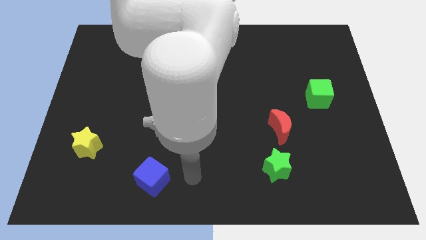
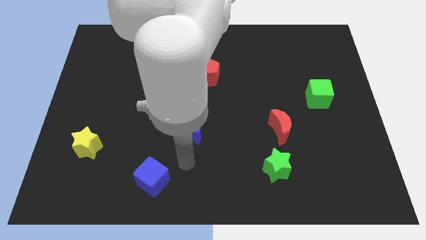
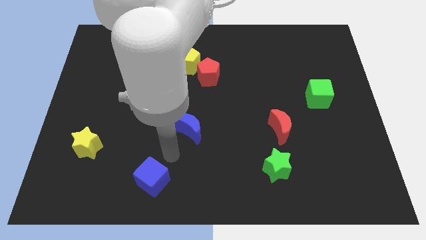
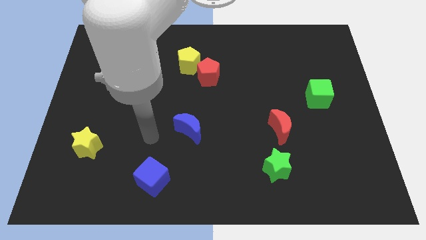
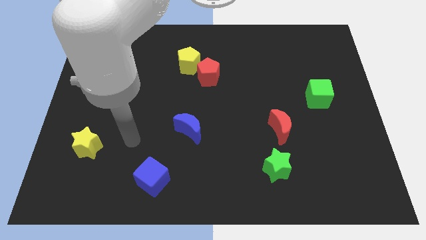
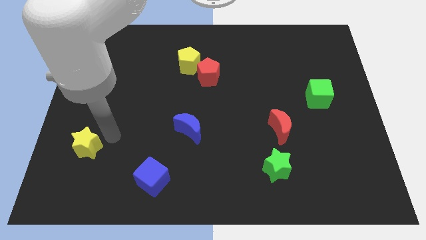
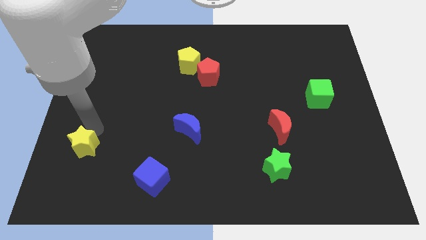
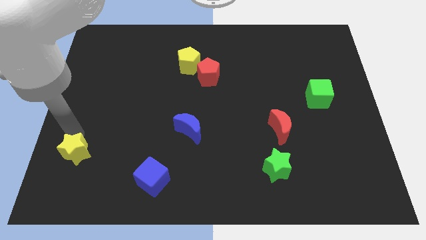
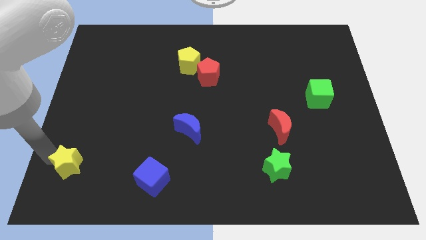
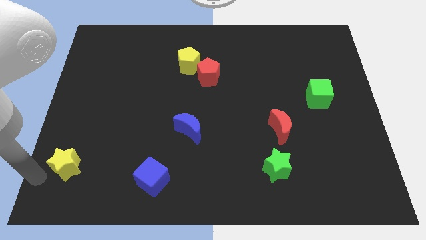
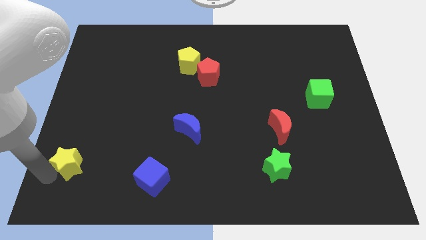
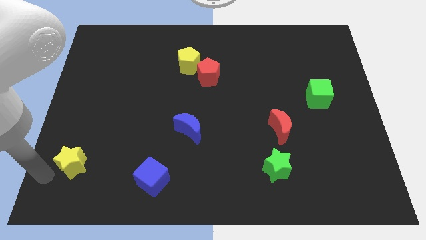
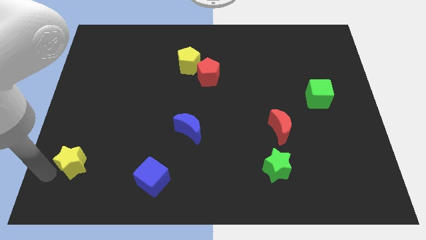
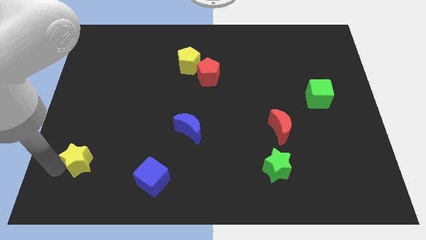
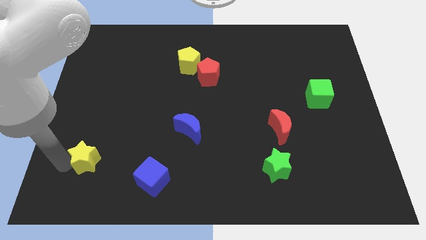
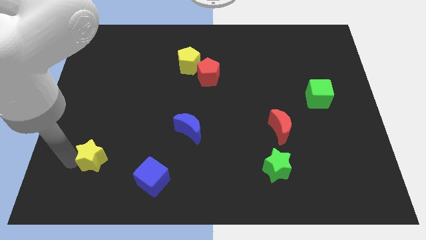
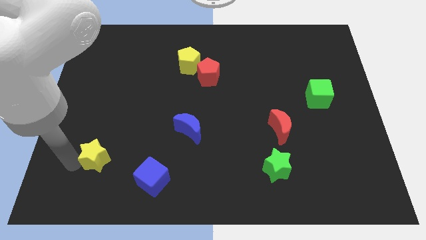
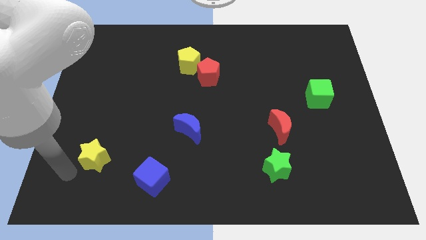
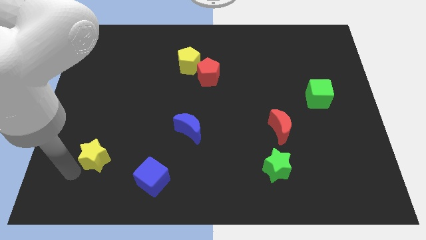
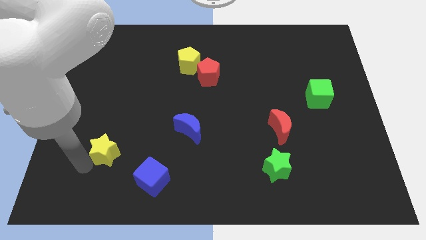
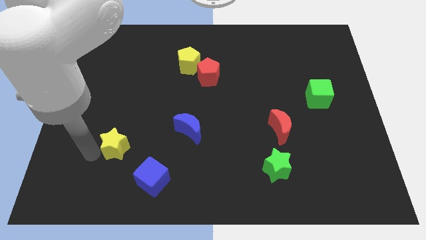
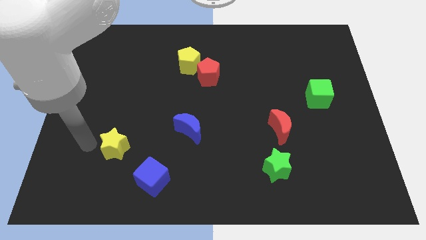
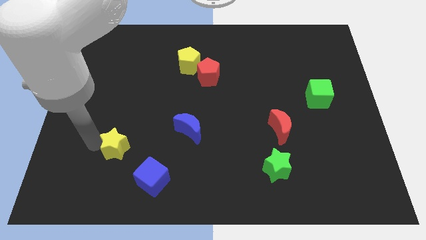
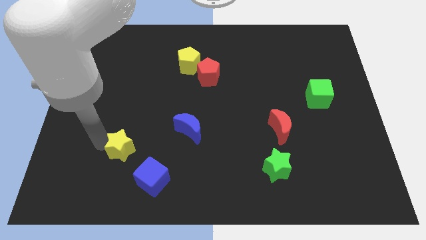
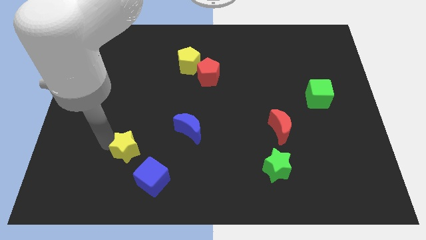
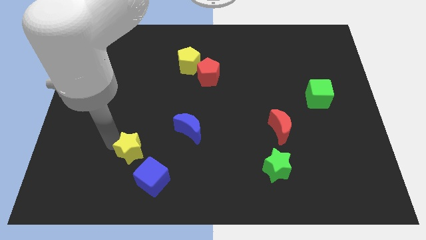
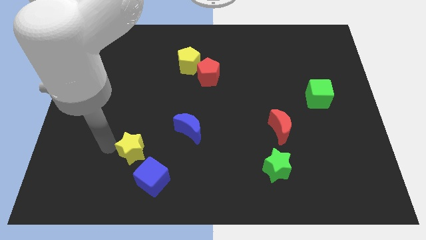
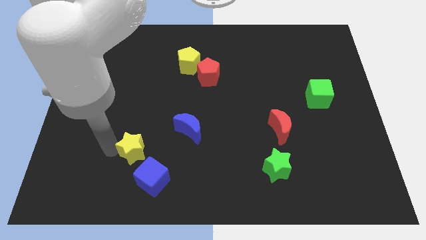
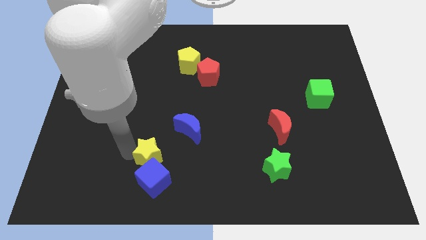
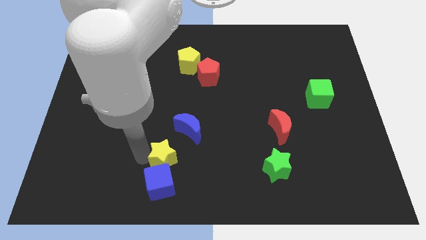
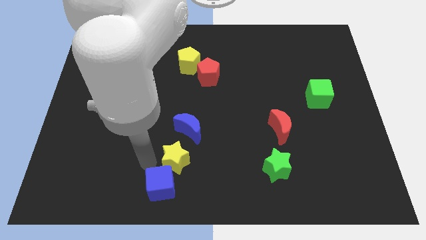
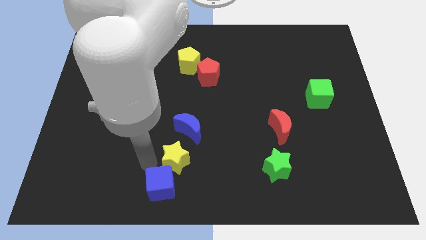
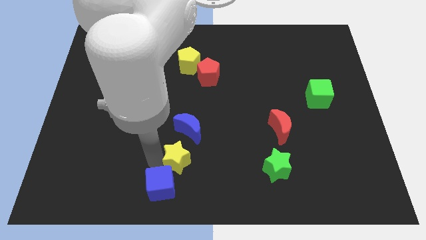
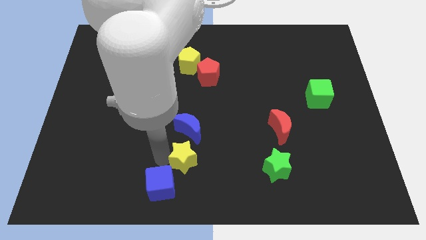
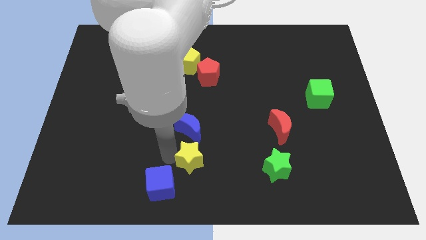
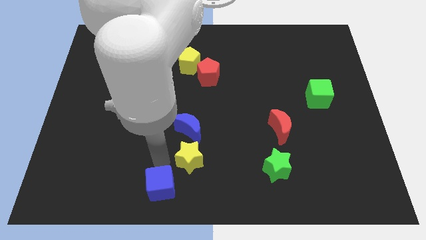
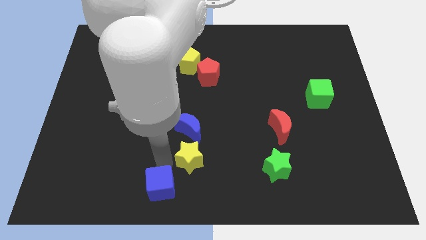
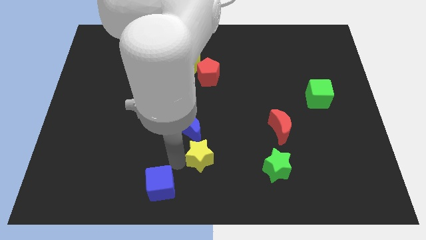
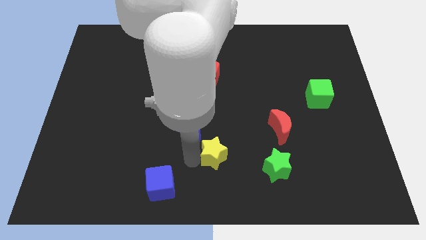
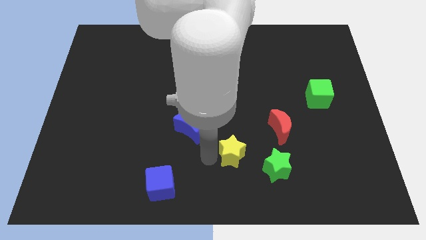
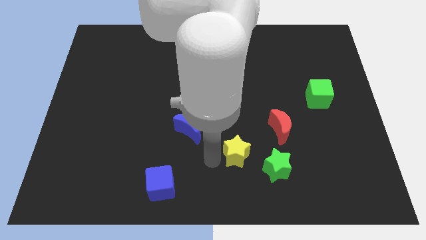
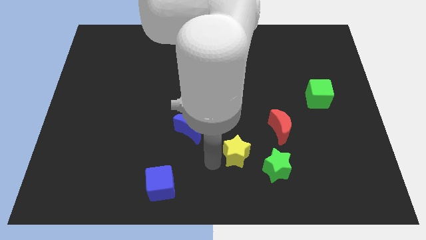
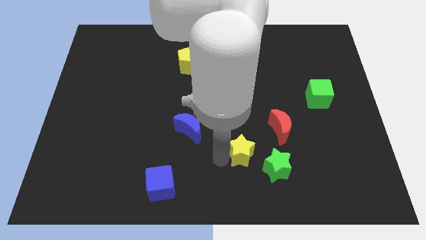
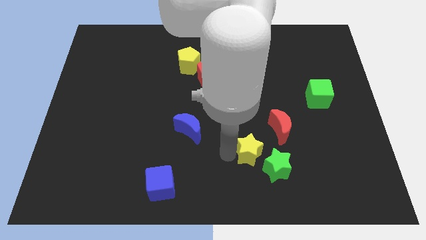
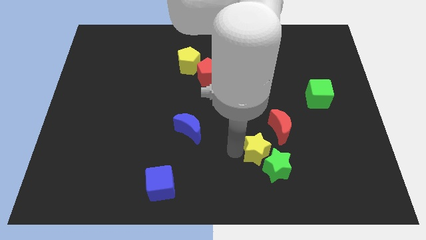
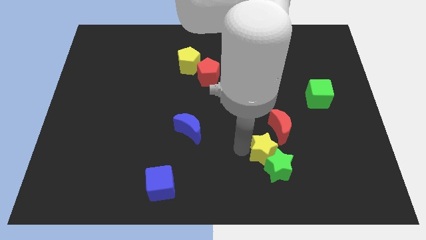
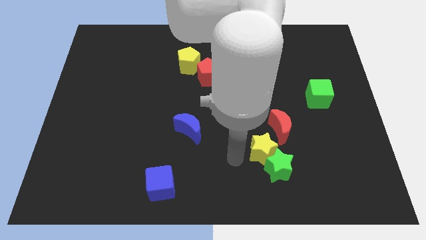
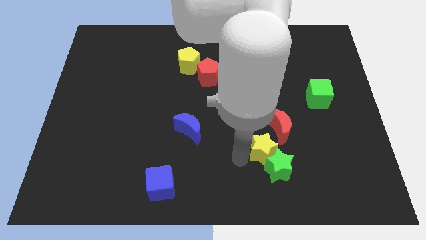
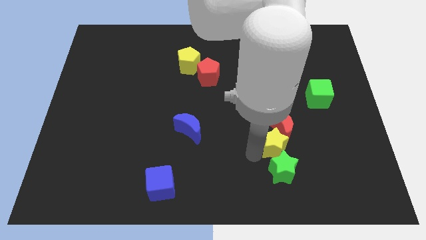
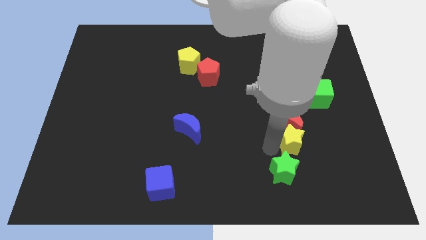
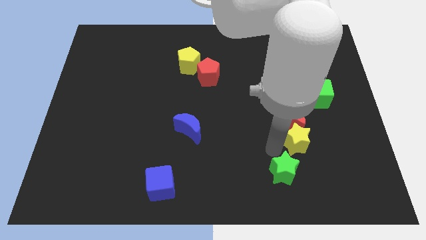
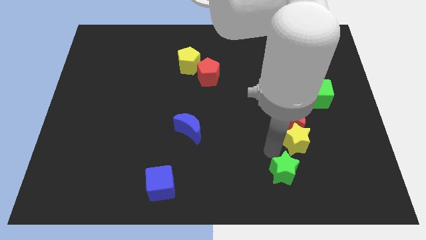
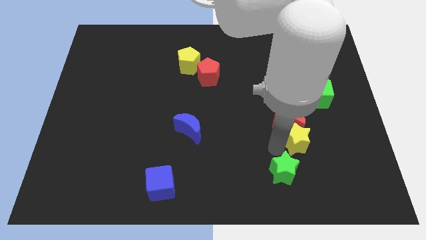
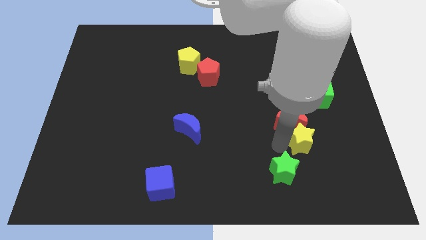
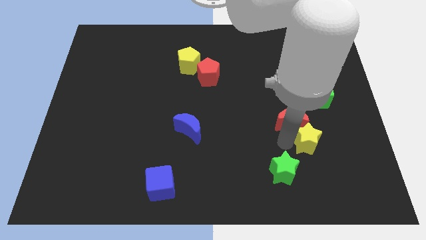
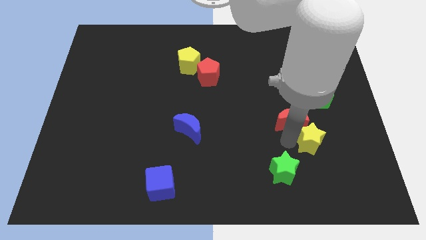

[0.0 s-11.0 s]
put the yellow star below the green cube

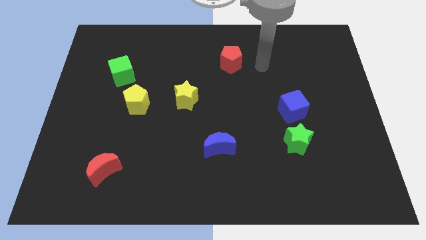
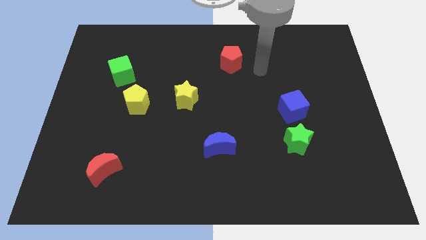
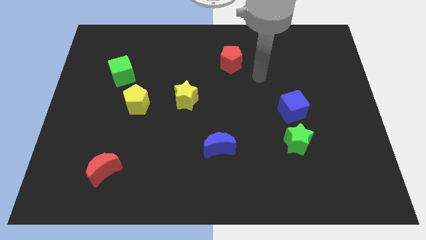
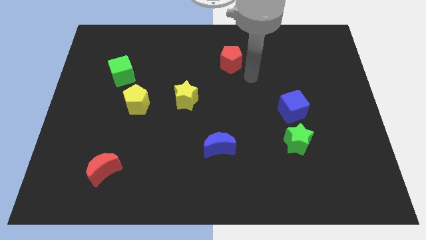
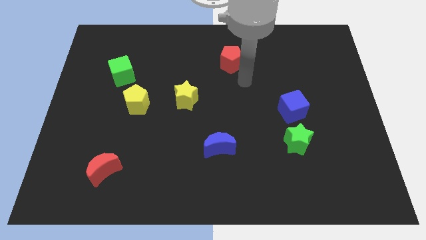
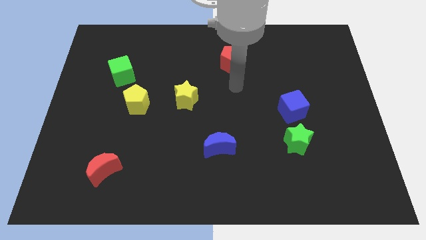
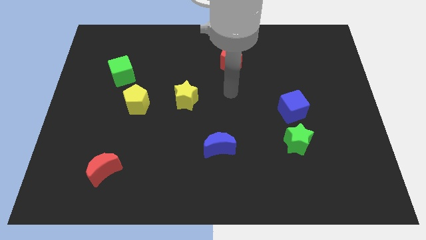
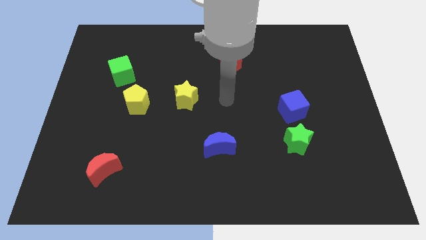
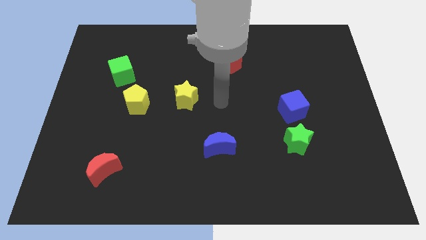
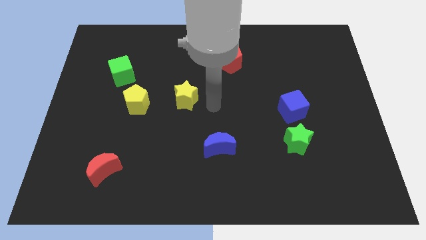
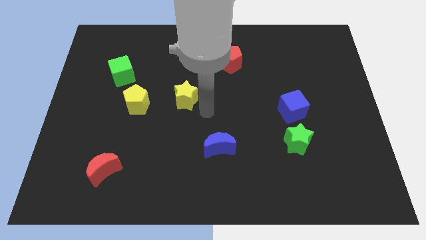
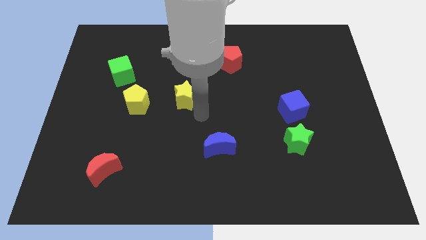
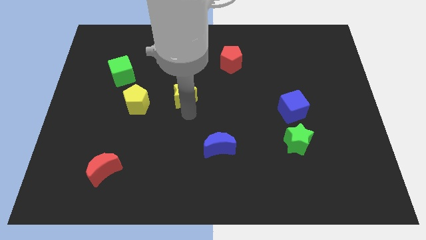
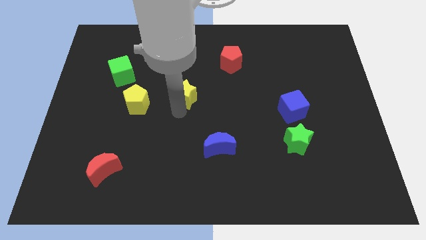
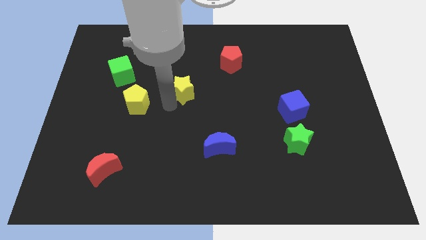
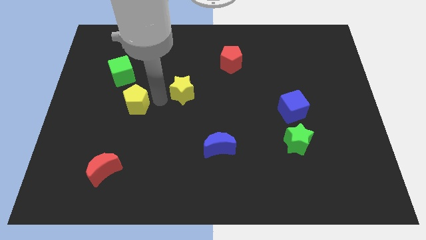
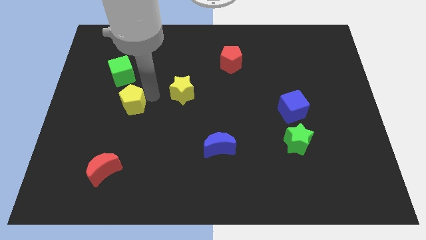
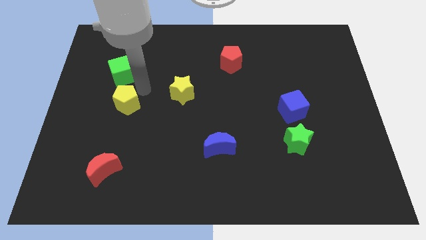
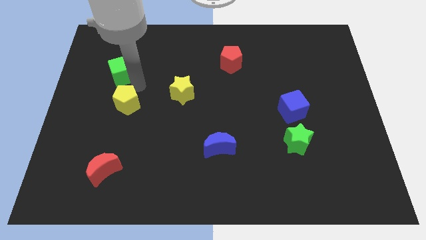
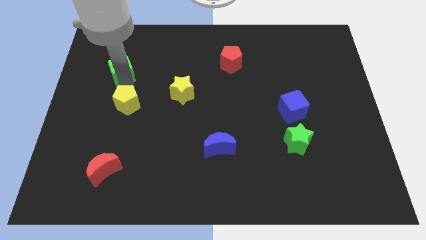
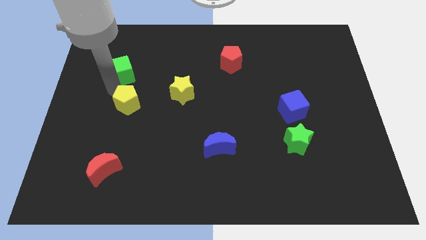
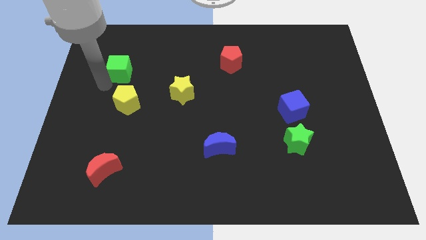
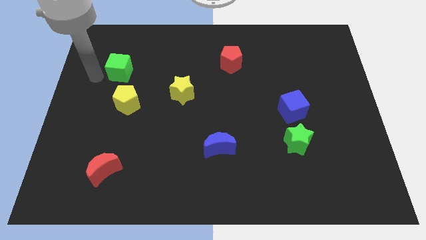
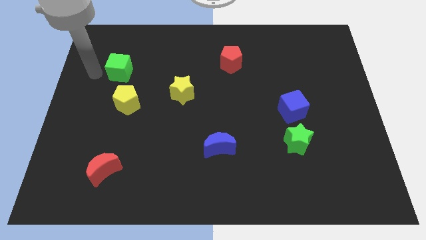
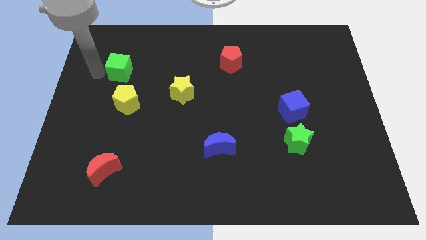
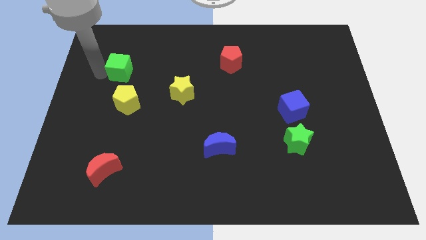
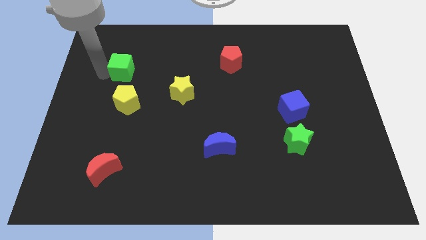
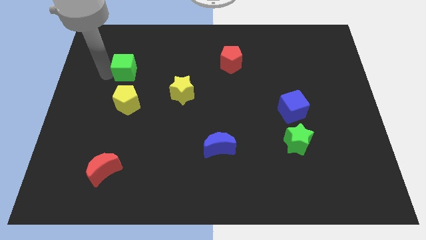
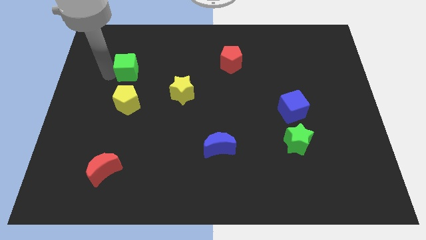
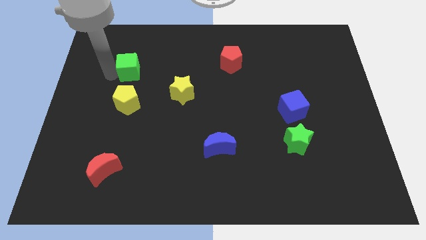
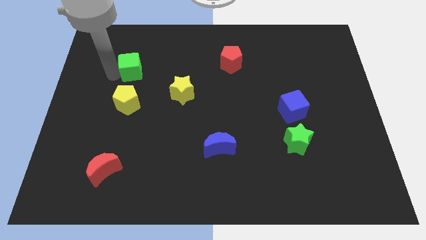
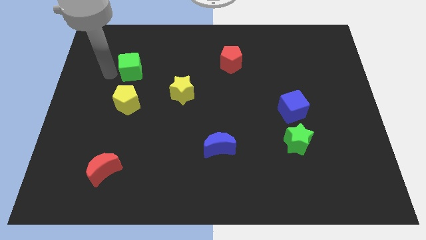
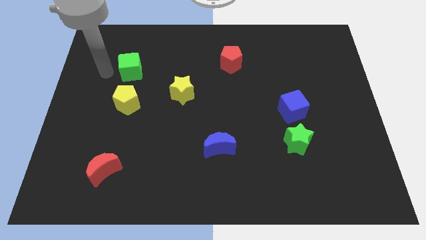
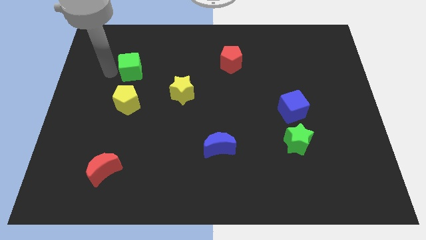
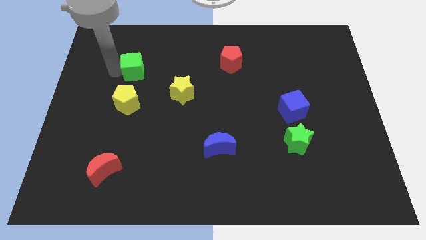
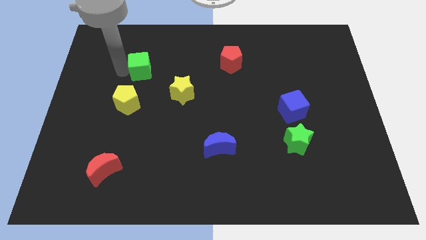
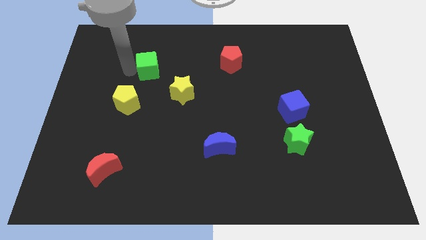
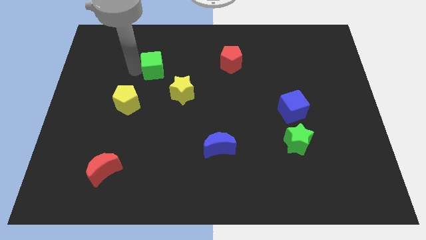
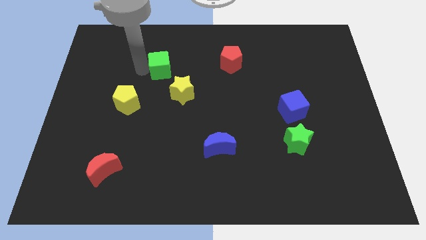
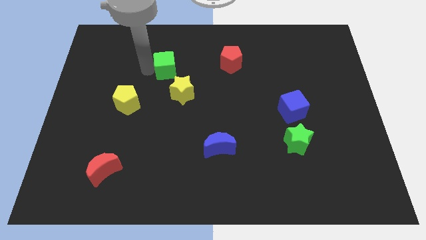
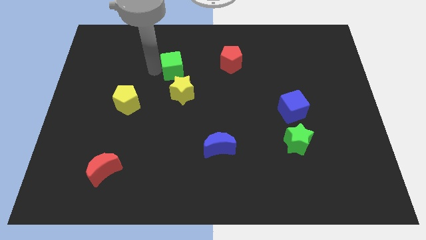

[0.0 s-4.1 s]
push the green cube just left of the red pentagon
